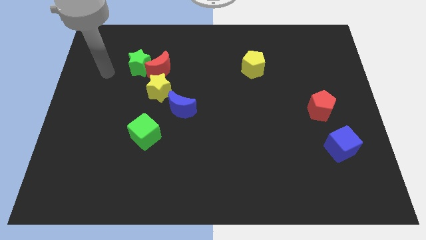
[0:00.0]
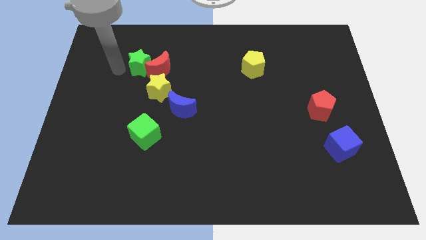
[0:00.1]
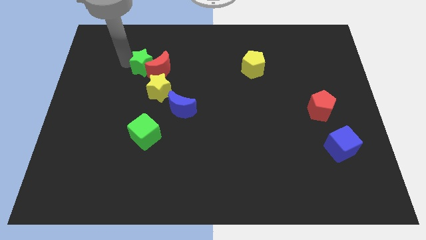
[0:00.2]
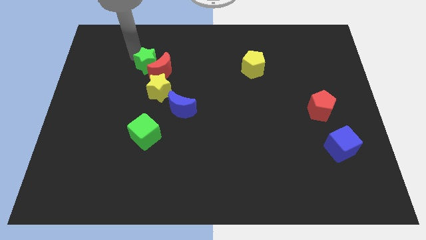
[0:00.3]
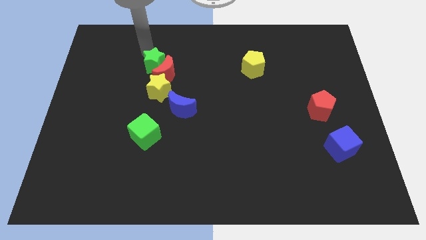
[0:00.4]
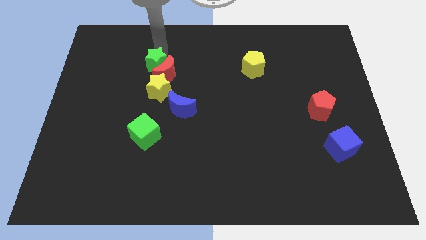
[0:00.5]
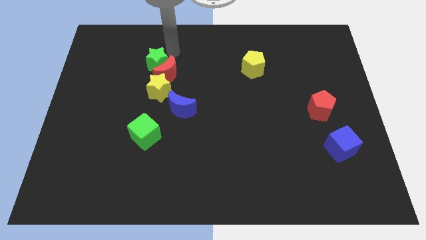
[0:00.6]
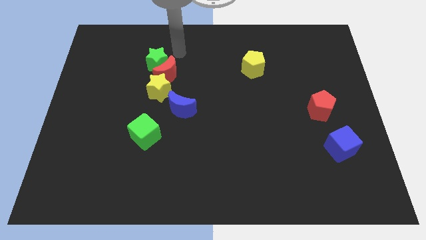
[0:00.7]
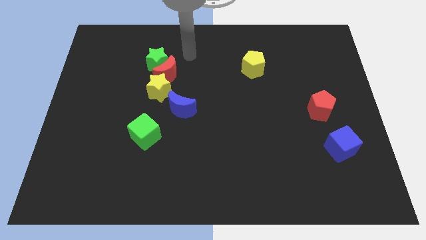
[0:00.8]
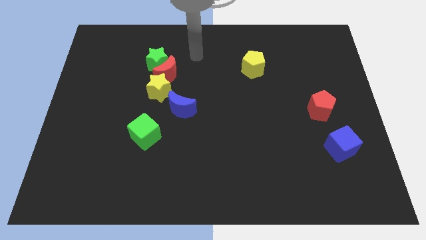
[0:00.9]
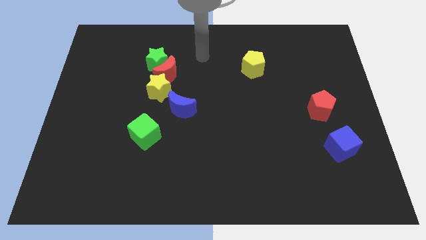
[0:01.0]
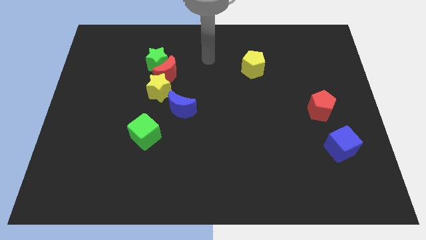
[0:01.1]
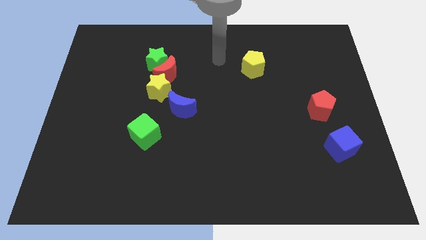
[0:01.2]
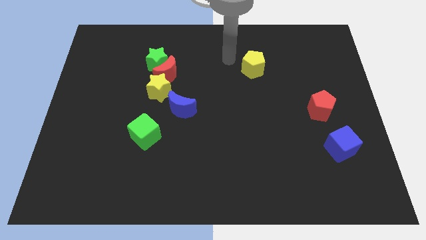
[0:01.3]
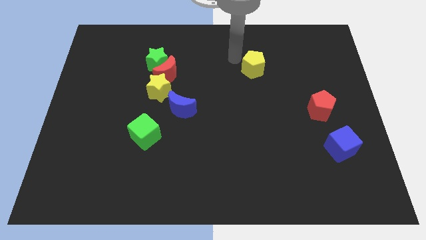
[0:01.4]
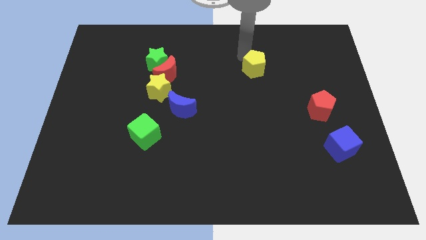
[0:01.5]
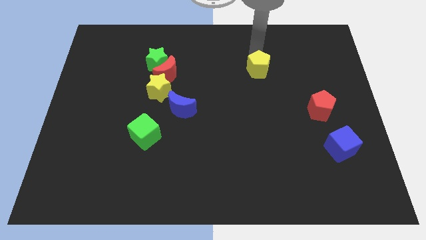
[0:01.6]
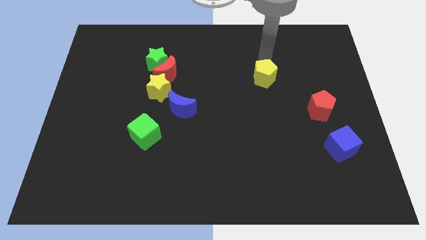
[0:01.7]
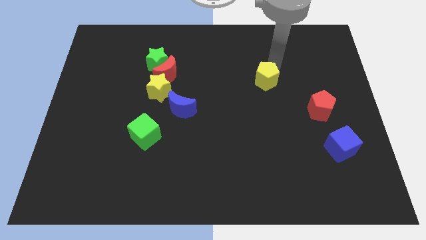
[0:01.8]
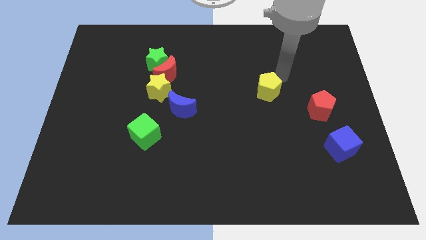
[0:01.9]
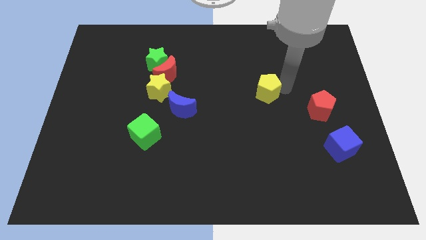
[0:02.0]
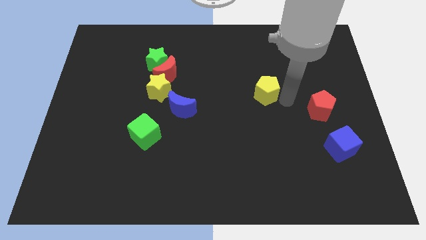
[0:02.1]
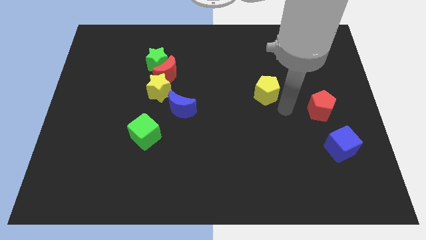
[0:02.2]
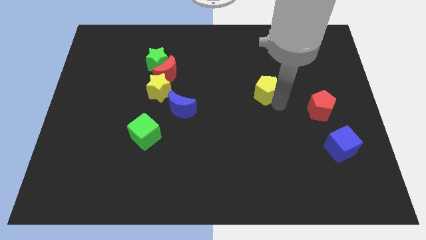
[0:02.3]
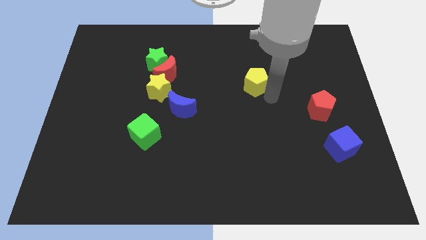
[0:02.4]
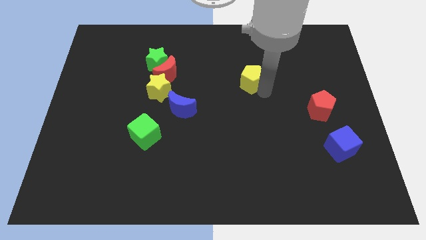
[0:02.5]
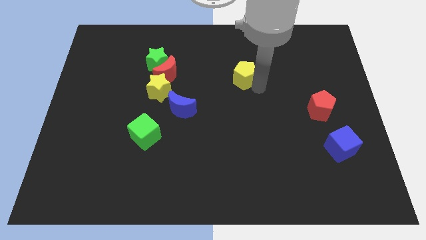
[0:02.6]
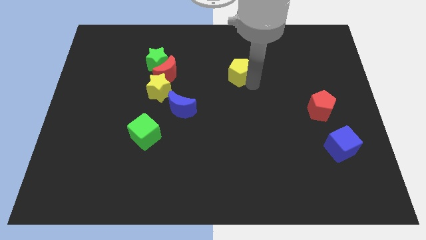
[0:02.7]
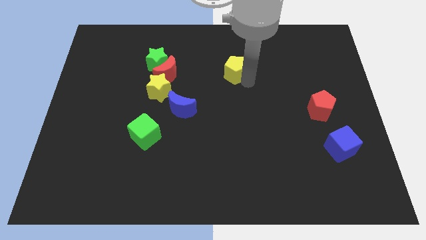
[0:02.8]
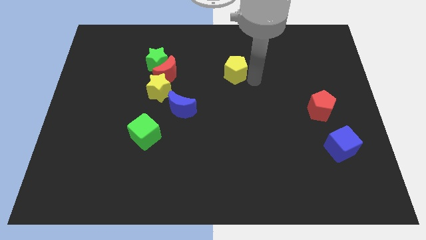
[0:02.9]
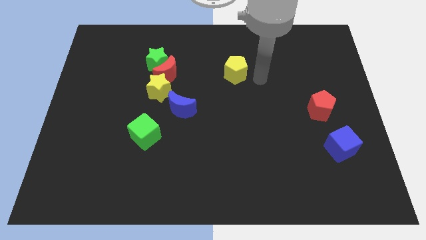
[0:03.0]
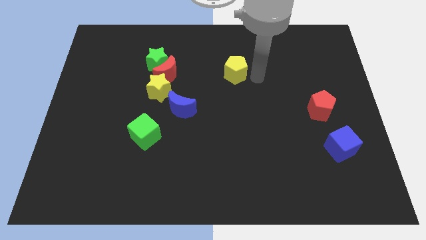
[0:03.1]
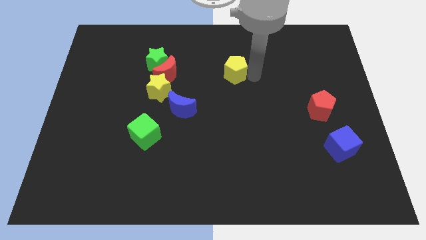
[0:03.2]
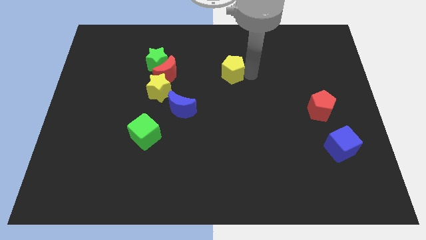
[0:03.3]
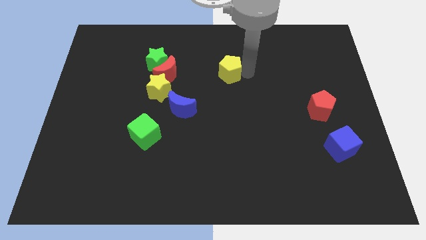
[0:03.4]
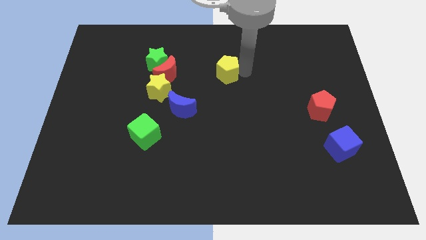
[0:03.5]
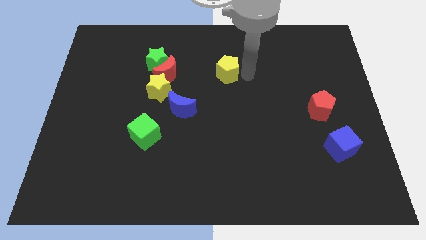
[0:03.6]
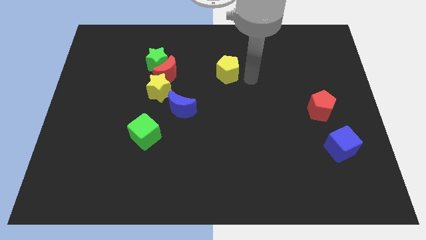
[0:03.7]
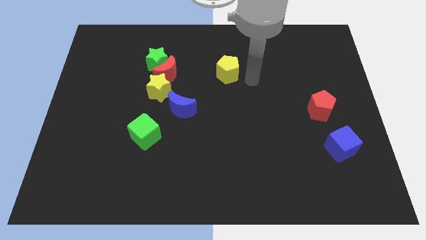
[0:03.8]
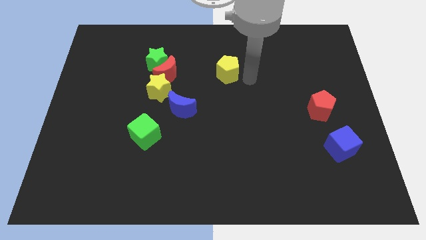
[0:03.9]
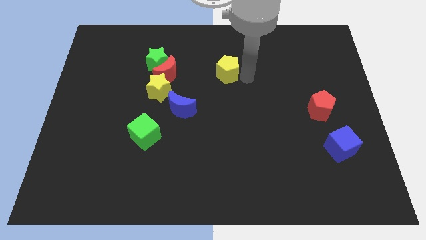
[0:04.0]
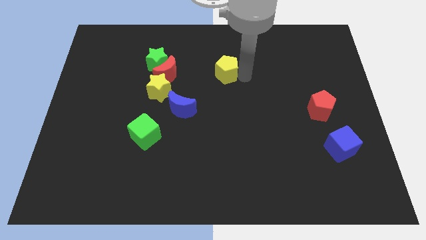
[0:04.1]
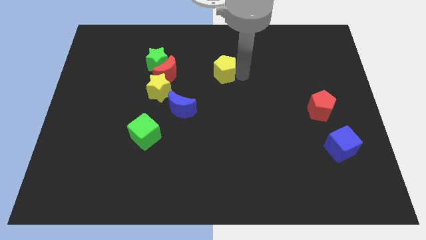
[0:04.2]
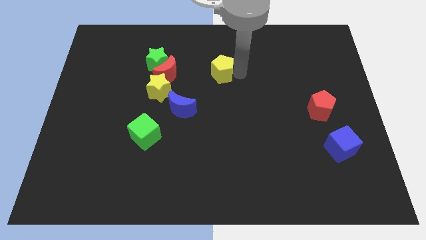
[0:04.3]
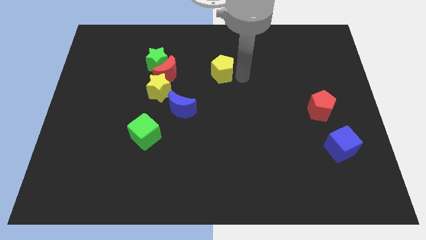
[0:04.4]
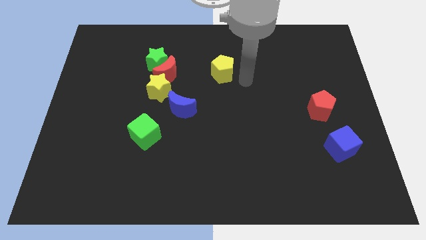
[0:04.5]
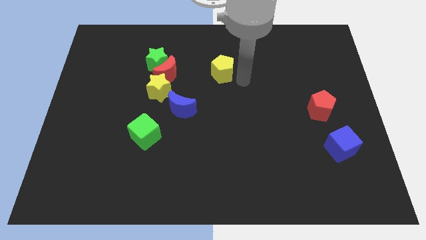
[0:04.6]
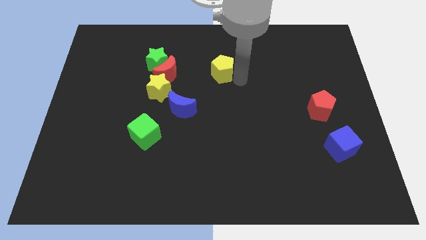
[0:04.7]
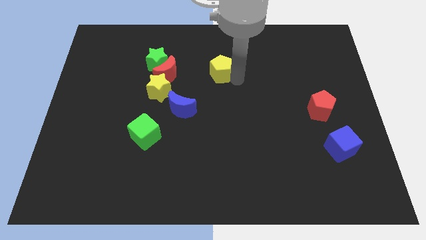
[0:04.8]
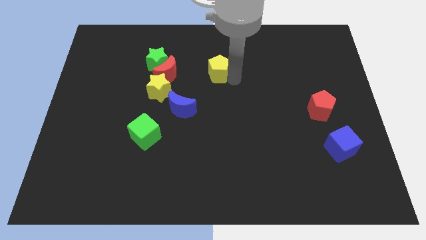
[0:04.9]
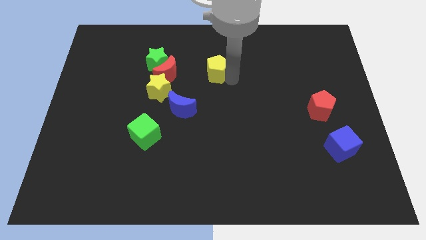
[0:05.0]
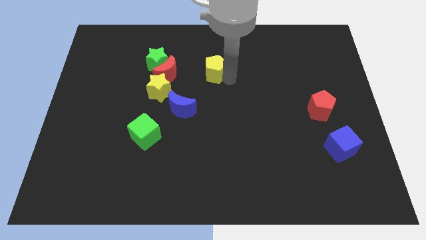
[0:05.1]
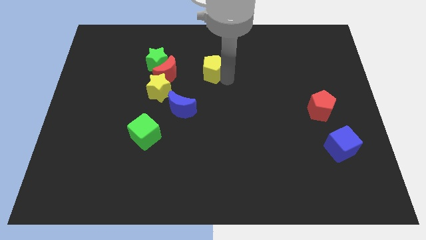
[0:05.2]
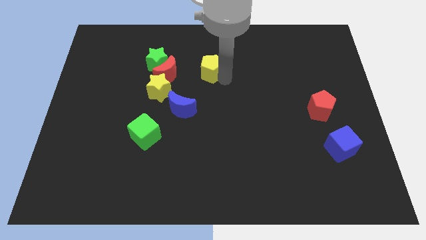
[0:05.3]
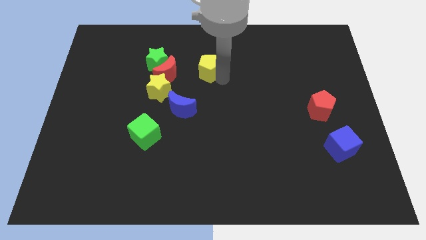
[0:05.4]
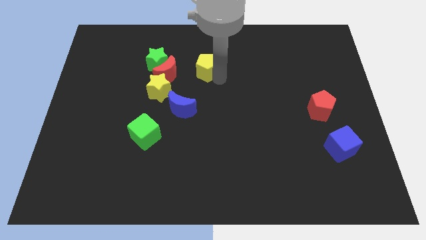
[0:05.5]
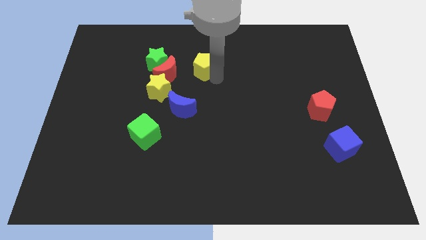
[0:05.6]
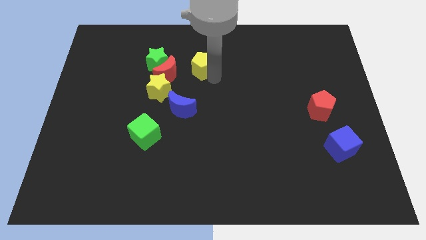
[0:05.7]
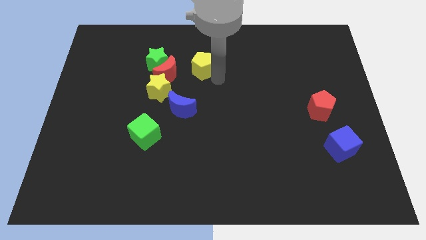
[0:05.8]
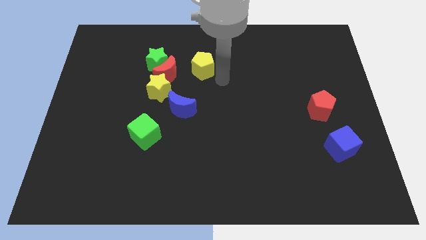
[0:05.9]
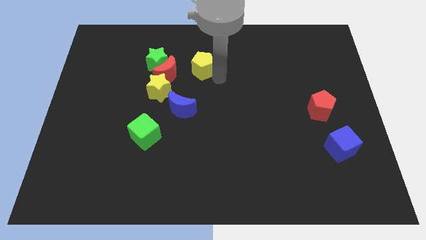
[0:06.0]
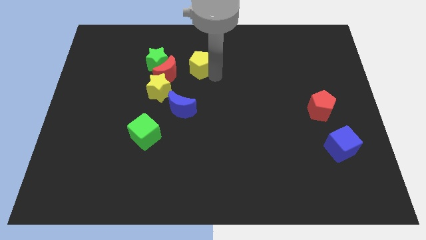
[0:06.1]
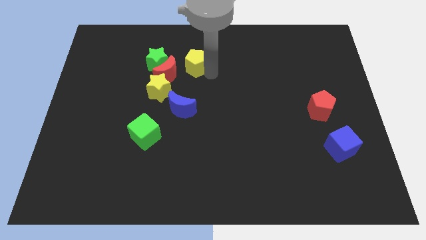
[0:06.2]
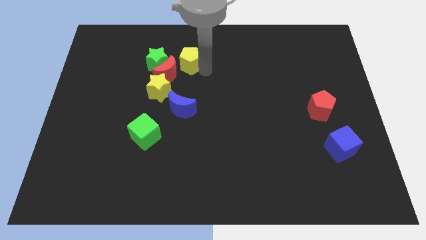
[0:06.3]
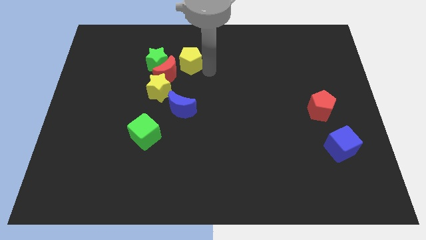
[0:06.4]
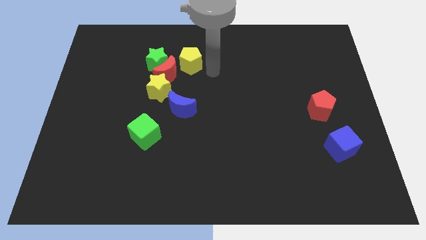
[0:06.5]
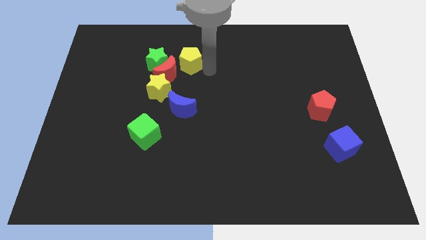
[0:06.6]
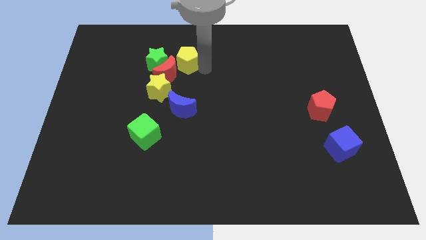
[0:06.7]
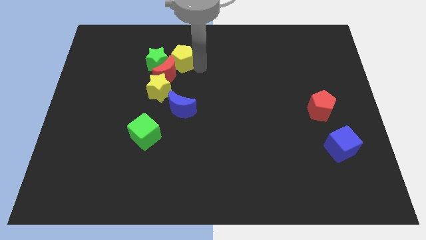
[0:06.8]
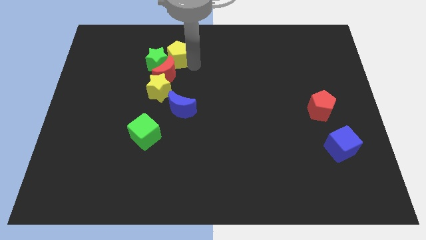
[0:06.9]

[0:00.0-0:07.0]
put the yellow pentagon to the green star
